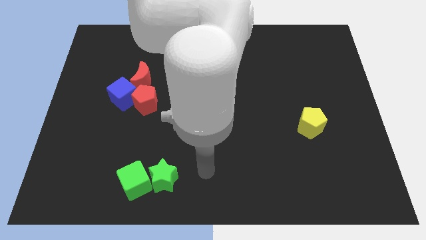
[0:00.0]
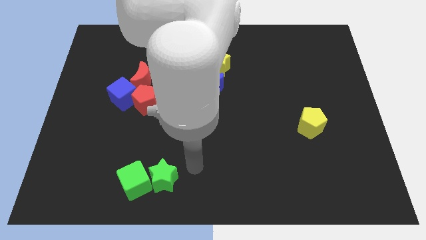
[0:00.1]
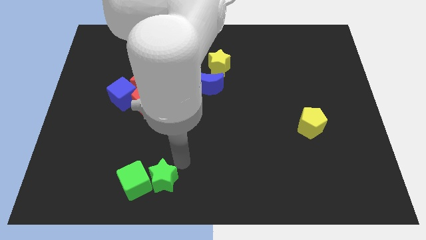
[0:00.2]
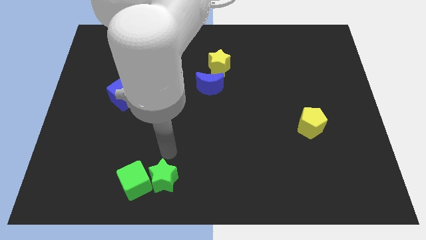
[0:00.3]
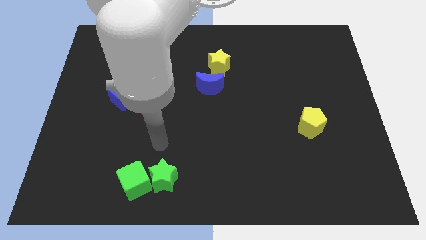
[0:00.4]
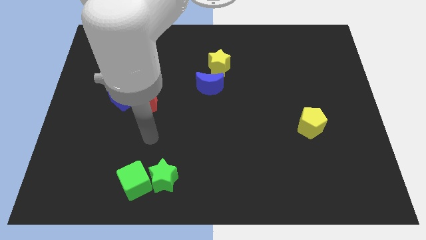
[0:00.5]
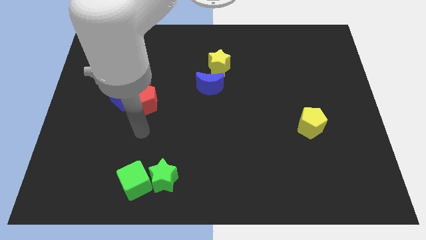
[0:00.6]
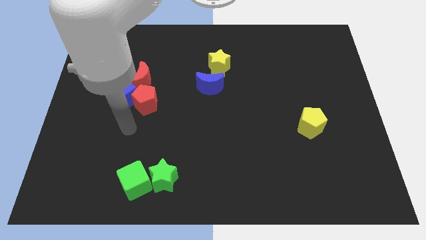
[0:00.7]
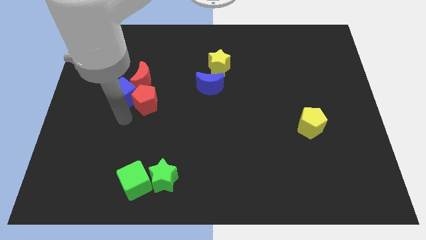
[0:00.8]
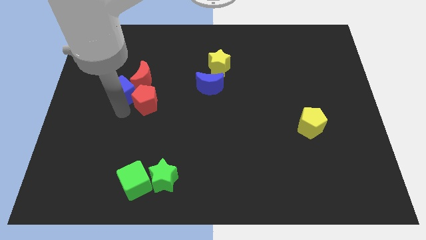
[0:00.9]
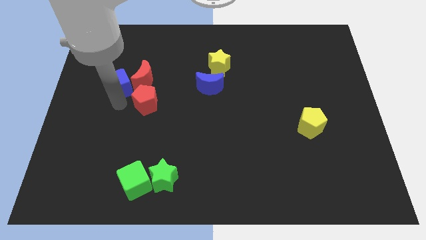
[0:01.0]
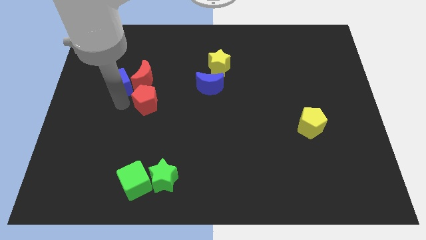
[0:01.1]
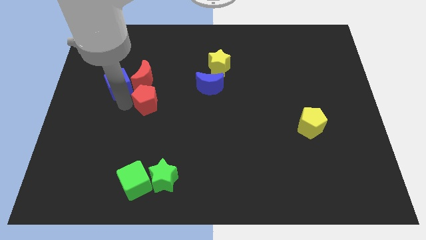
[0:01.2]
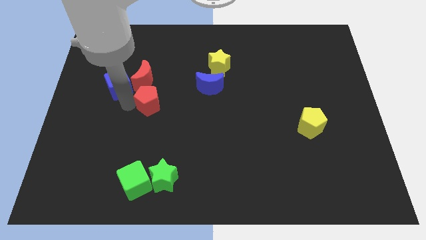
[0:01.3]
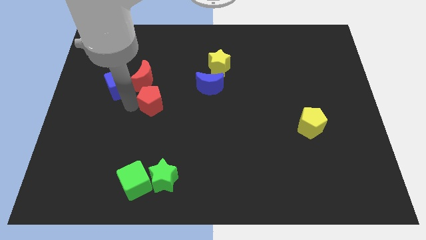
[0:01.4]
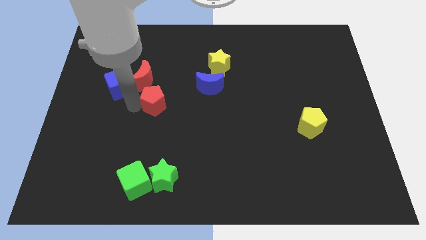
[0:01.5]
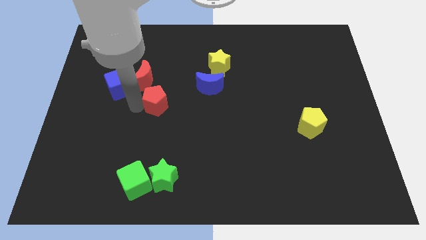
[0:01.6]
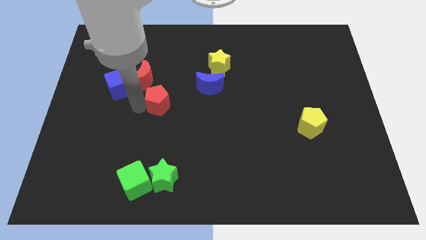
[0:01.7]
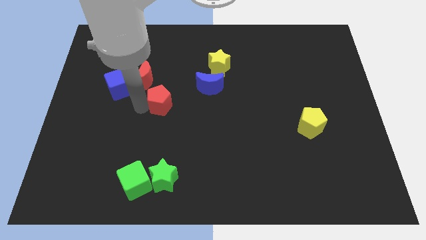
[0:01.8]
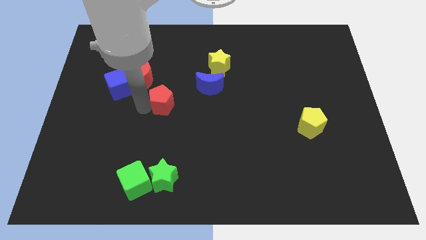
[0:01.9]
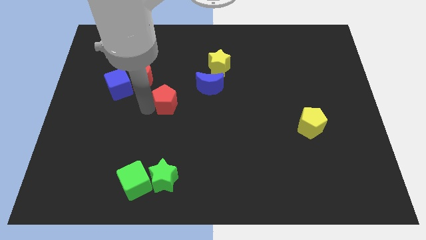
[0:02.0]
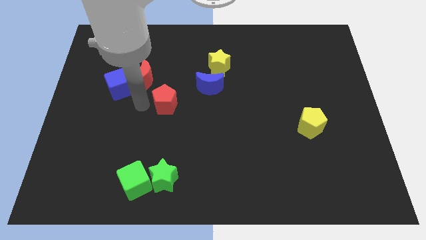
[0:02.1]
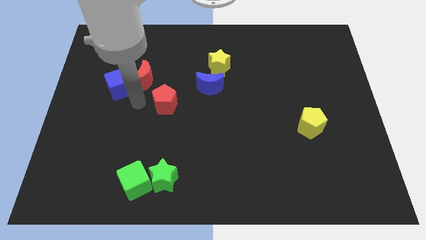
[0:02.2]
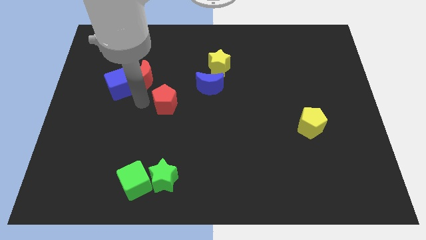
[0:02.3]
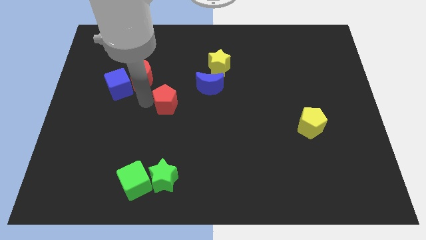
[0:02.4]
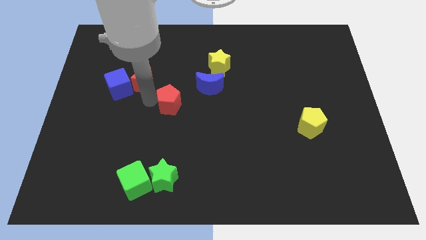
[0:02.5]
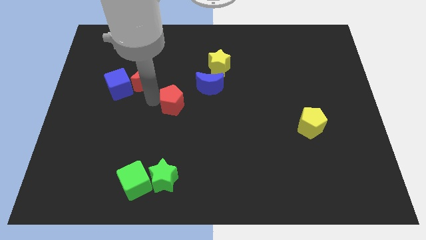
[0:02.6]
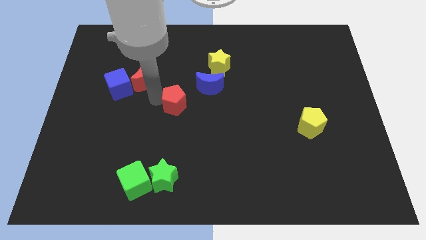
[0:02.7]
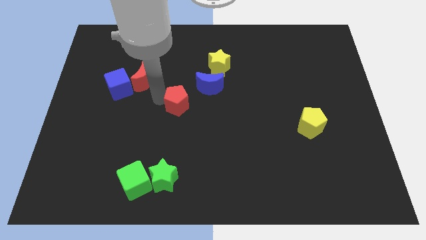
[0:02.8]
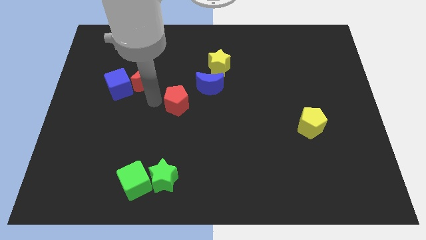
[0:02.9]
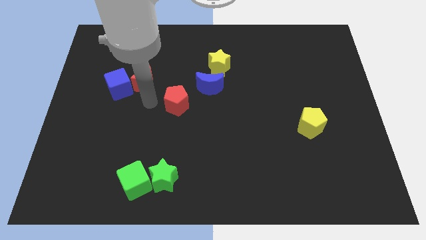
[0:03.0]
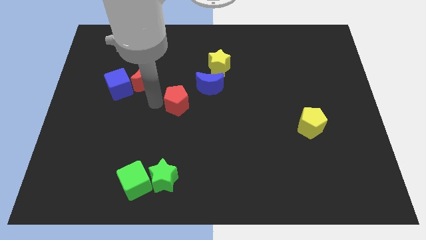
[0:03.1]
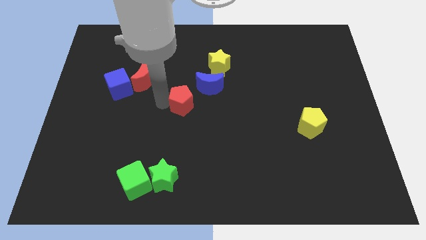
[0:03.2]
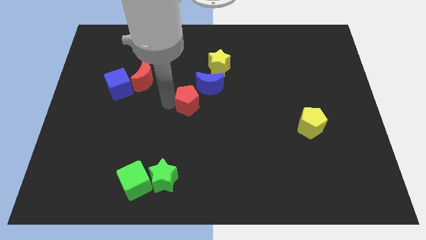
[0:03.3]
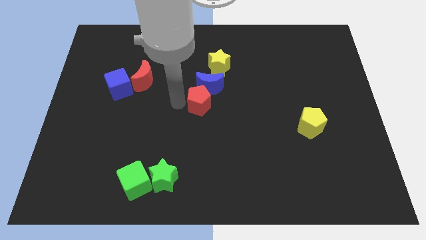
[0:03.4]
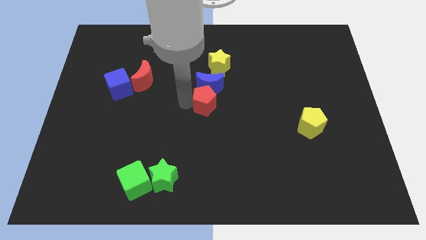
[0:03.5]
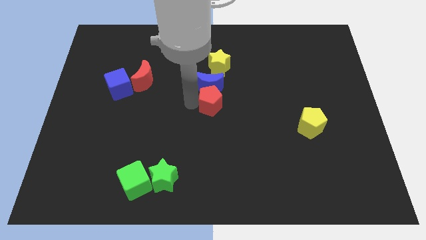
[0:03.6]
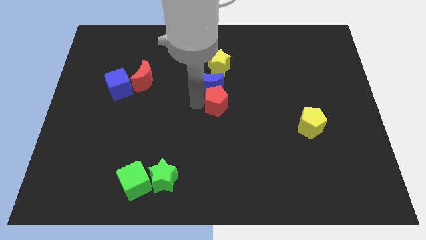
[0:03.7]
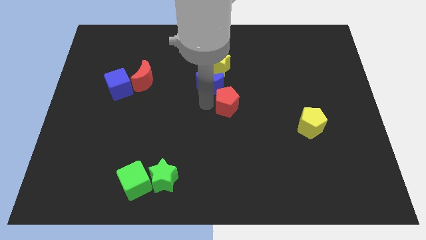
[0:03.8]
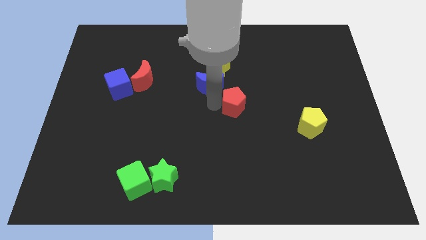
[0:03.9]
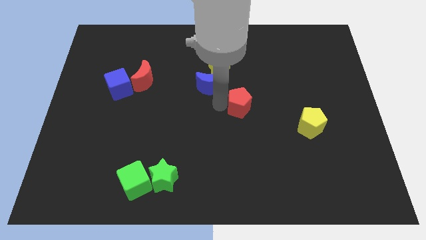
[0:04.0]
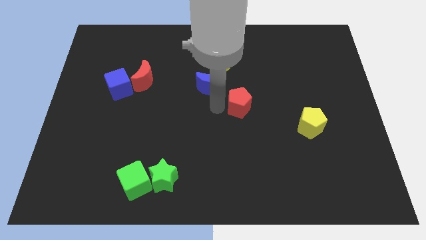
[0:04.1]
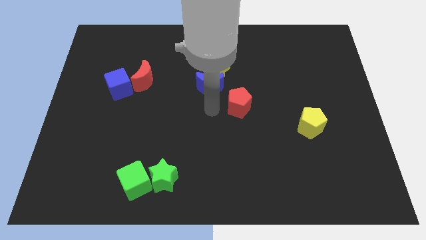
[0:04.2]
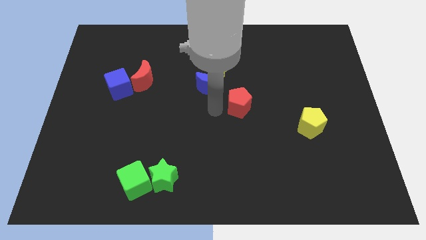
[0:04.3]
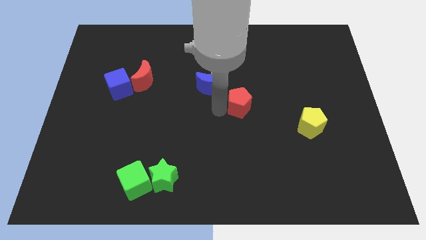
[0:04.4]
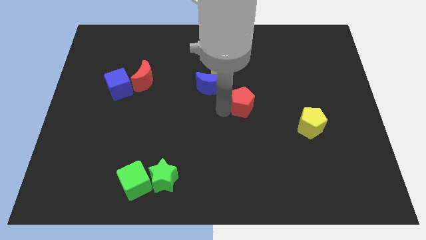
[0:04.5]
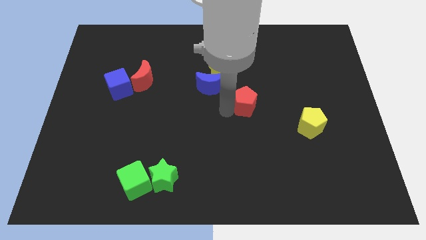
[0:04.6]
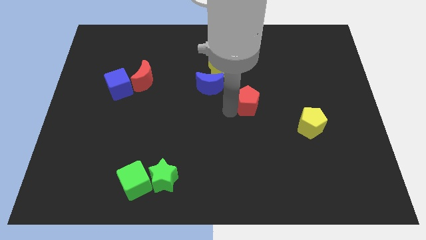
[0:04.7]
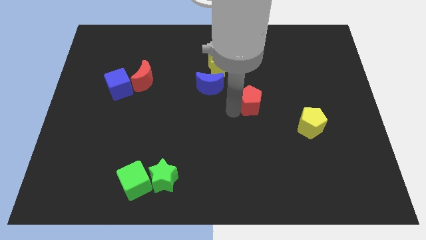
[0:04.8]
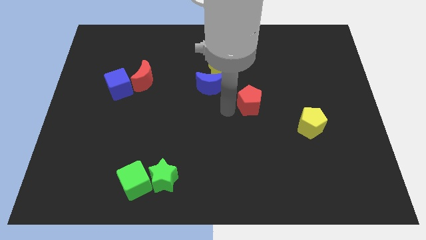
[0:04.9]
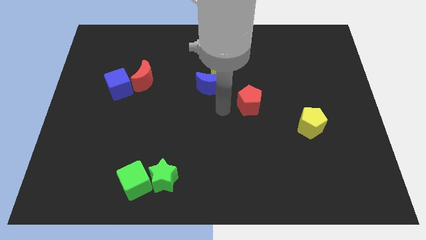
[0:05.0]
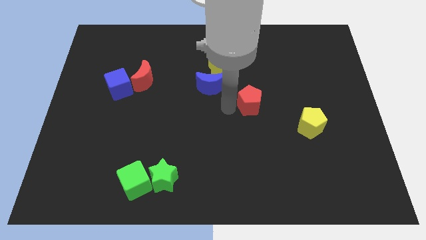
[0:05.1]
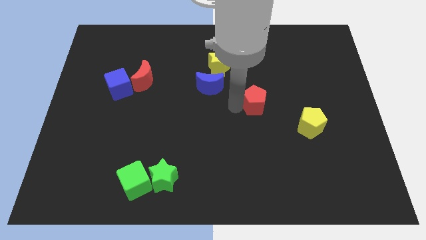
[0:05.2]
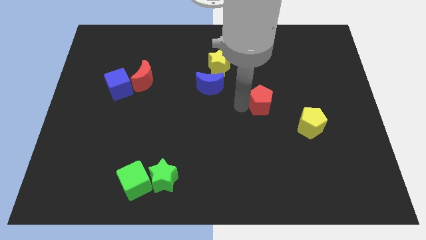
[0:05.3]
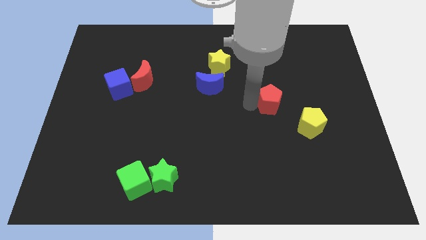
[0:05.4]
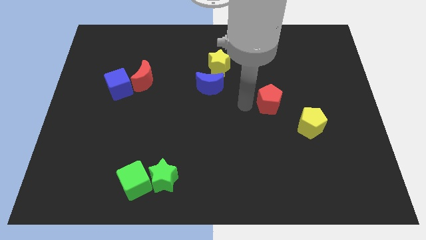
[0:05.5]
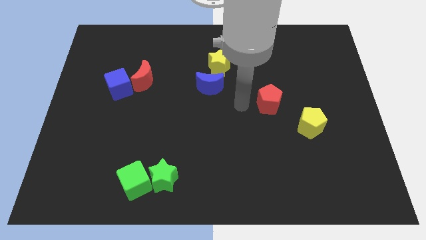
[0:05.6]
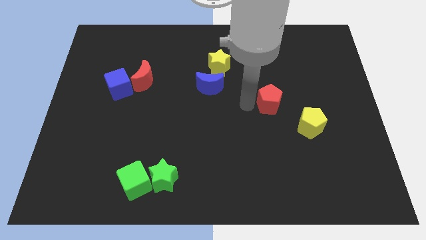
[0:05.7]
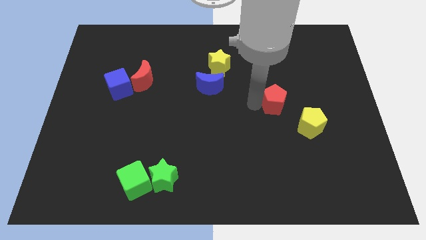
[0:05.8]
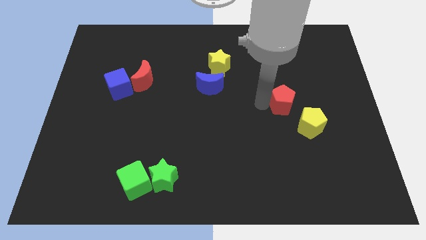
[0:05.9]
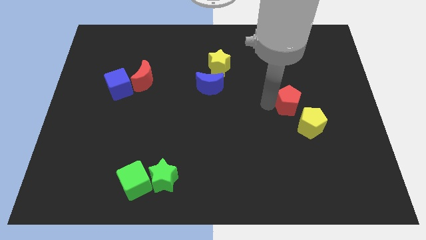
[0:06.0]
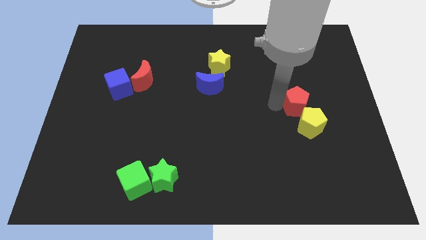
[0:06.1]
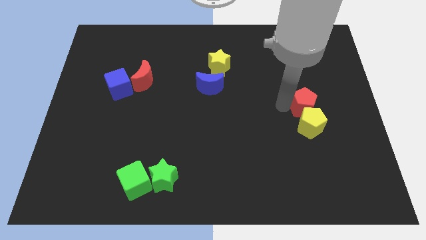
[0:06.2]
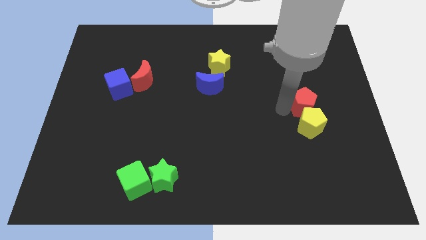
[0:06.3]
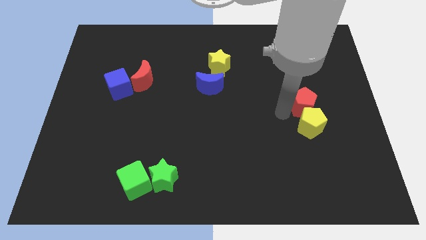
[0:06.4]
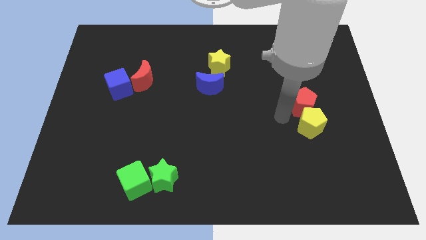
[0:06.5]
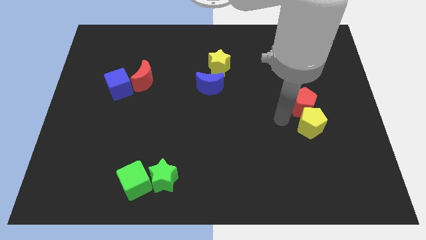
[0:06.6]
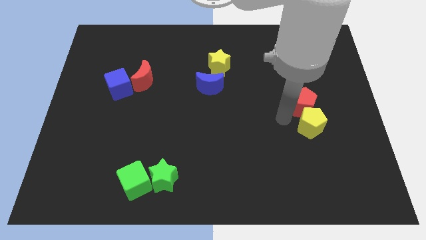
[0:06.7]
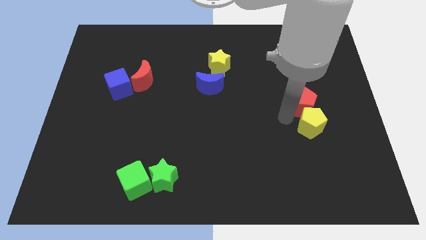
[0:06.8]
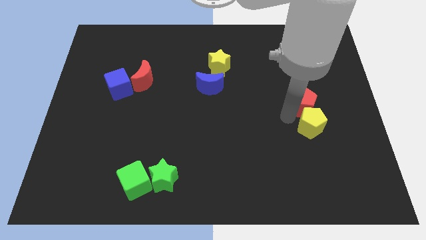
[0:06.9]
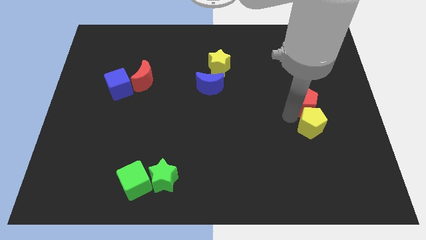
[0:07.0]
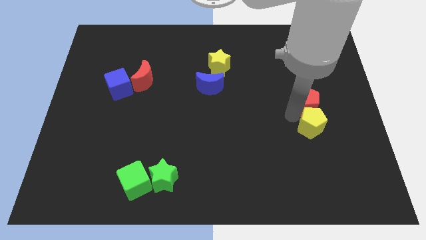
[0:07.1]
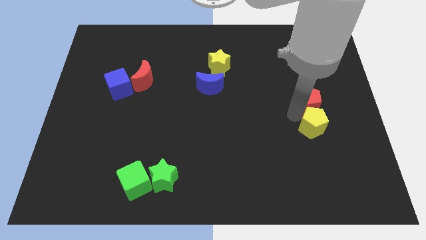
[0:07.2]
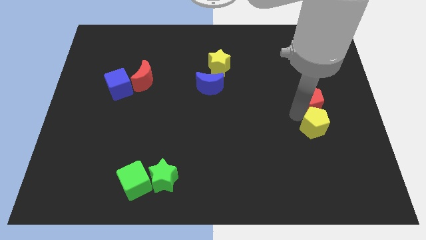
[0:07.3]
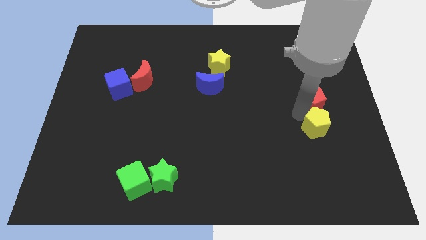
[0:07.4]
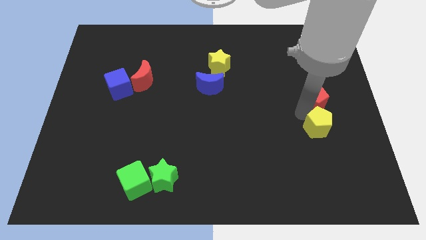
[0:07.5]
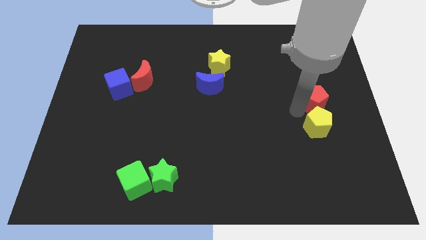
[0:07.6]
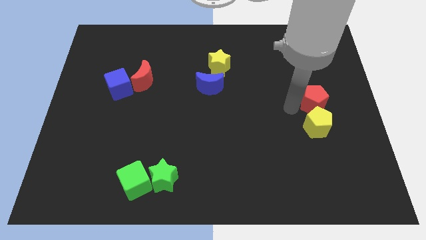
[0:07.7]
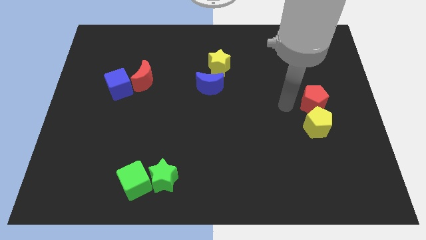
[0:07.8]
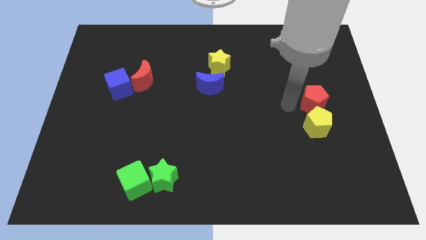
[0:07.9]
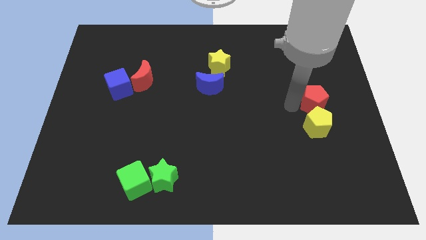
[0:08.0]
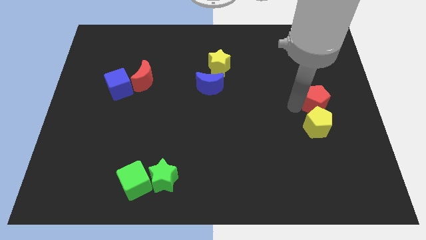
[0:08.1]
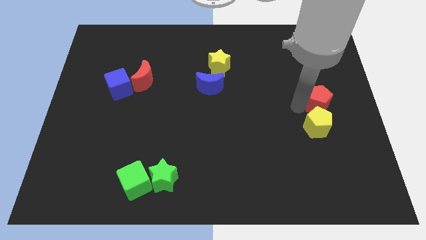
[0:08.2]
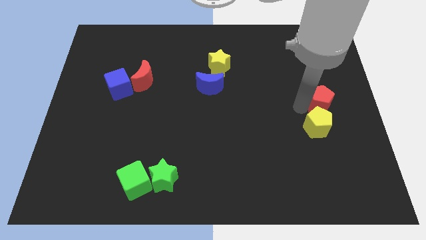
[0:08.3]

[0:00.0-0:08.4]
slide the red pentagon to the right side
